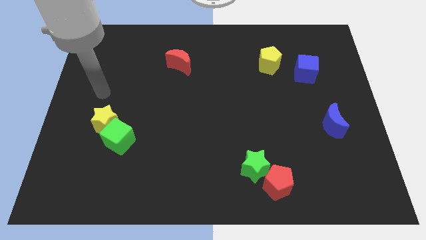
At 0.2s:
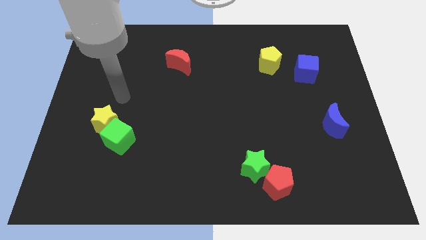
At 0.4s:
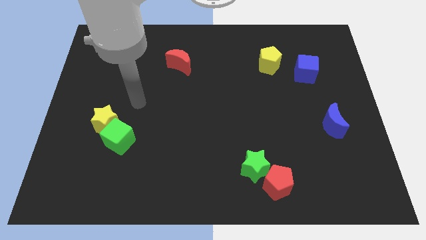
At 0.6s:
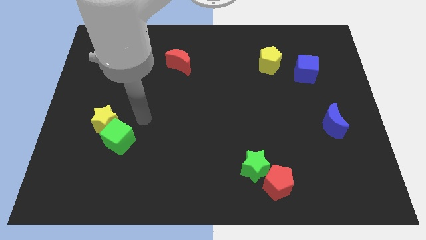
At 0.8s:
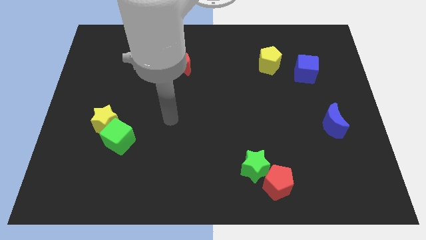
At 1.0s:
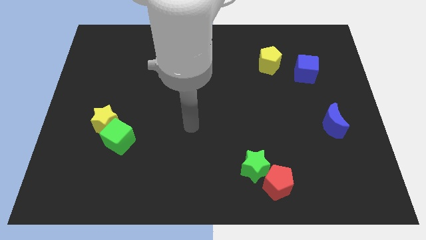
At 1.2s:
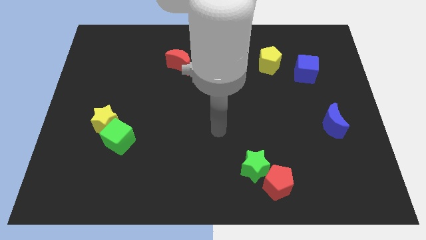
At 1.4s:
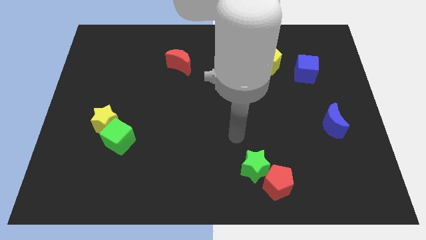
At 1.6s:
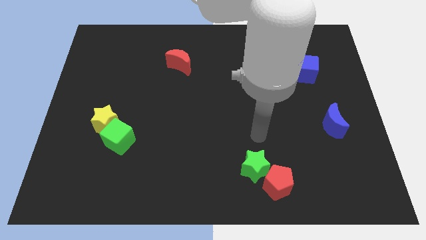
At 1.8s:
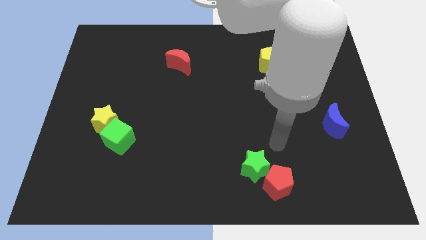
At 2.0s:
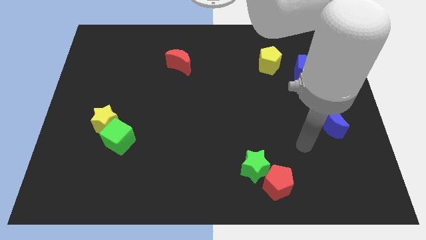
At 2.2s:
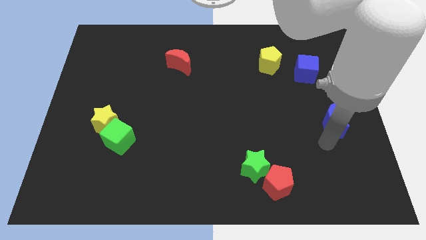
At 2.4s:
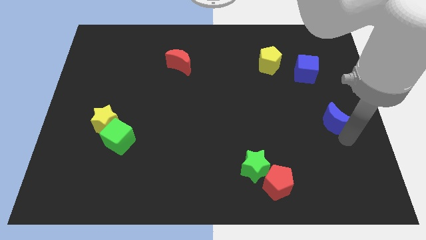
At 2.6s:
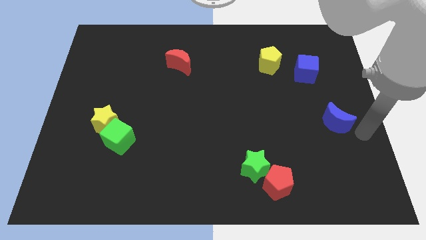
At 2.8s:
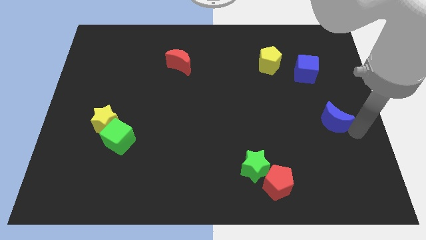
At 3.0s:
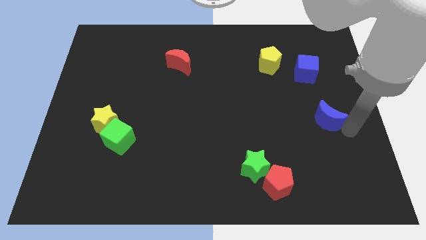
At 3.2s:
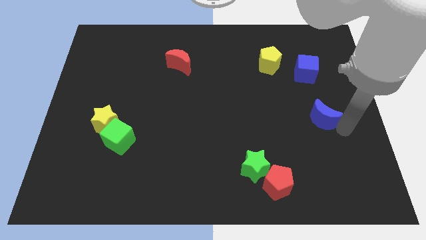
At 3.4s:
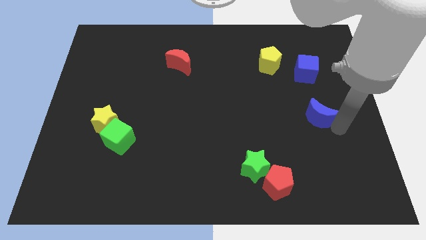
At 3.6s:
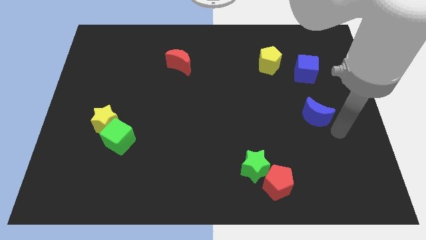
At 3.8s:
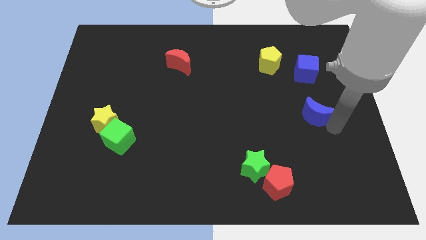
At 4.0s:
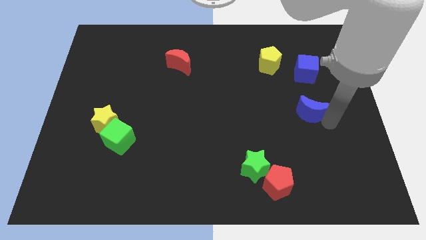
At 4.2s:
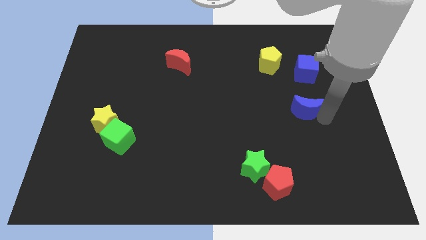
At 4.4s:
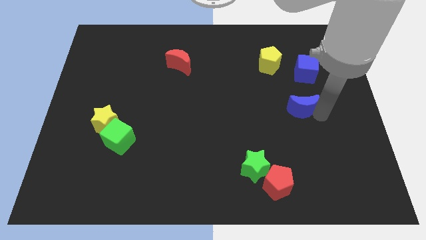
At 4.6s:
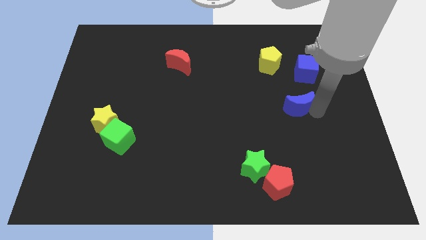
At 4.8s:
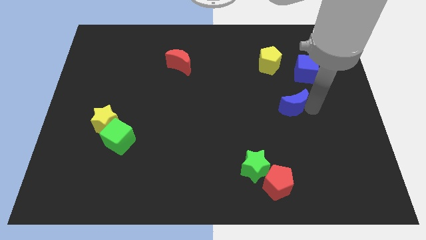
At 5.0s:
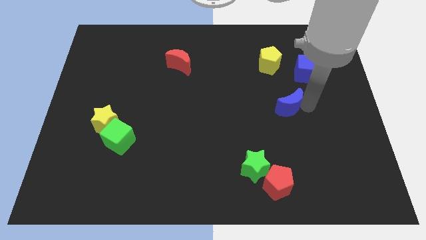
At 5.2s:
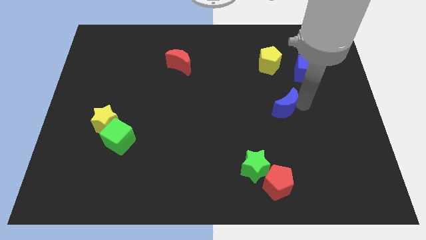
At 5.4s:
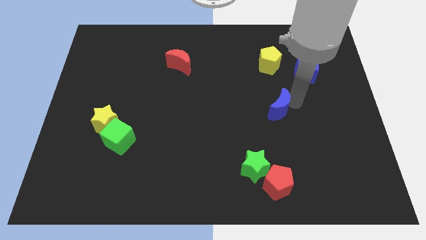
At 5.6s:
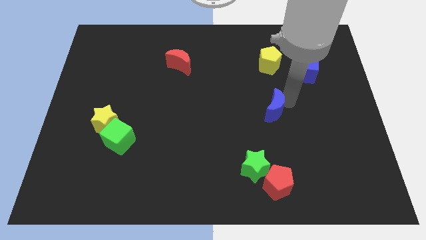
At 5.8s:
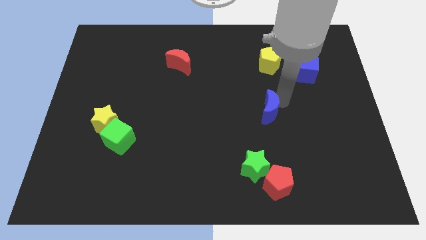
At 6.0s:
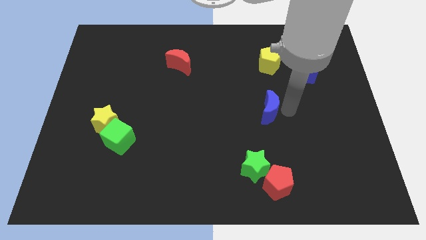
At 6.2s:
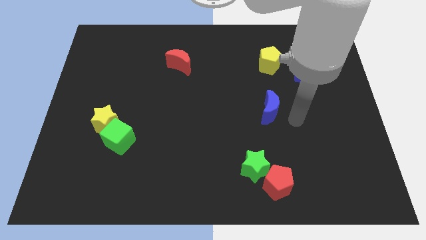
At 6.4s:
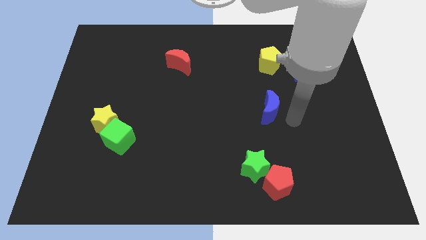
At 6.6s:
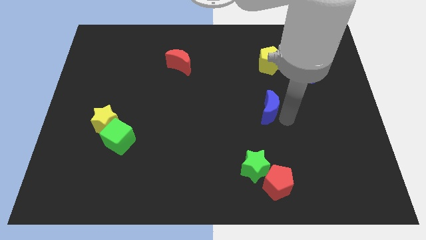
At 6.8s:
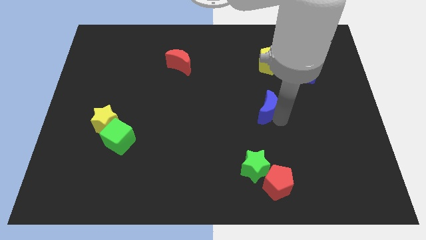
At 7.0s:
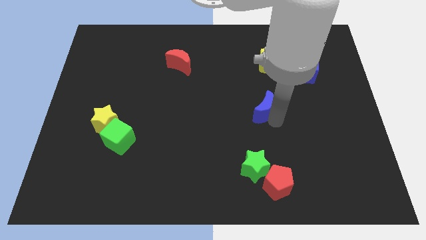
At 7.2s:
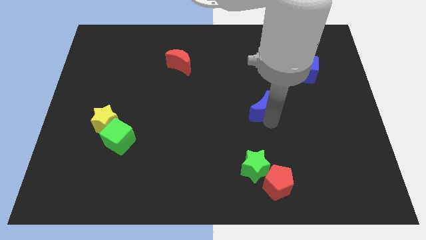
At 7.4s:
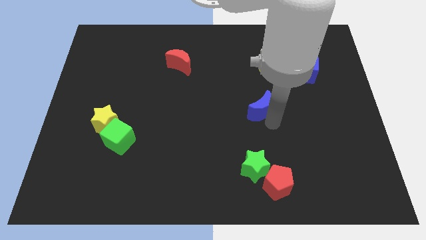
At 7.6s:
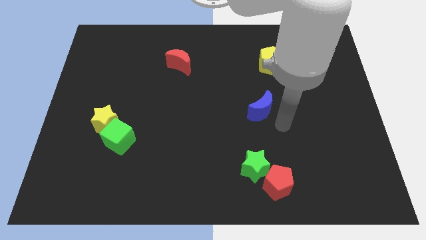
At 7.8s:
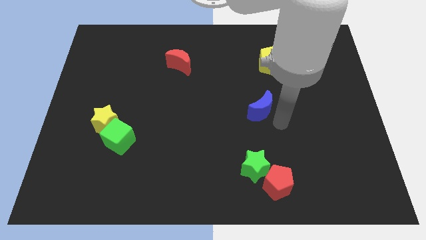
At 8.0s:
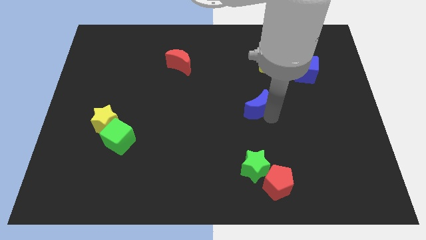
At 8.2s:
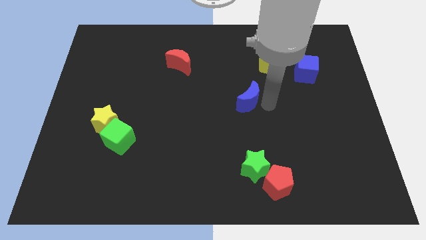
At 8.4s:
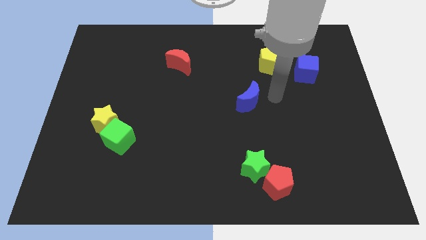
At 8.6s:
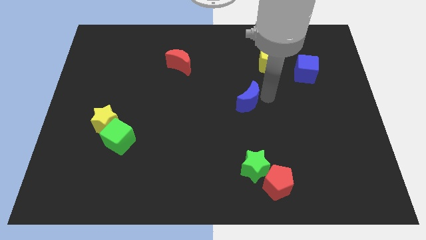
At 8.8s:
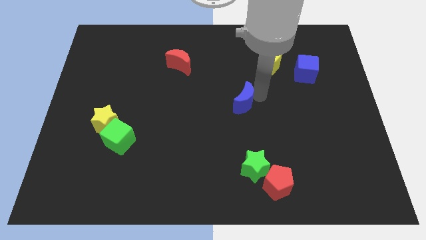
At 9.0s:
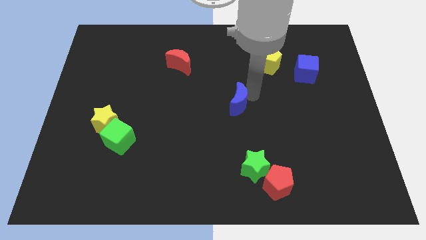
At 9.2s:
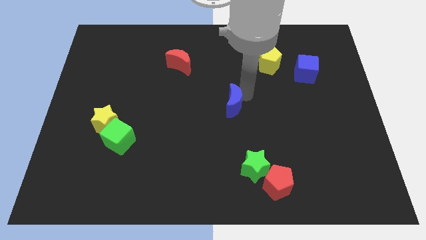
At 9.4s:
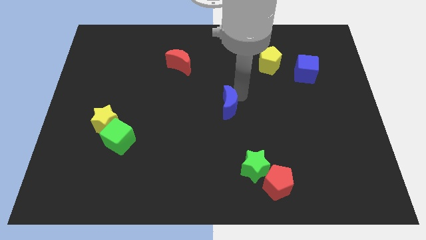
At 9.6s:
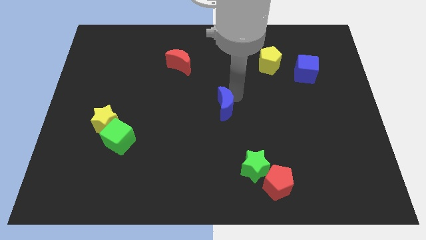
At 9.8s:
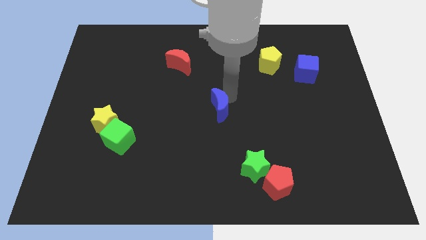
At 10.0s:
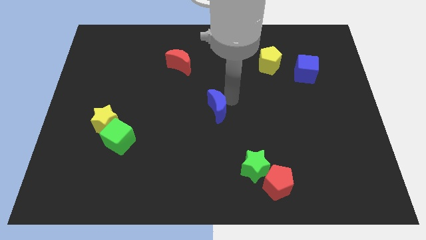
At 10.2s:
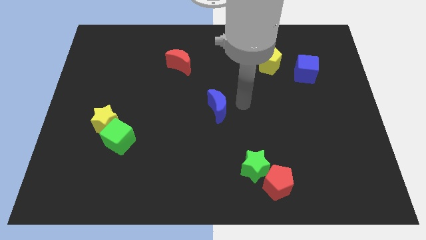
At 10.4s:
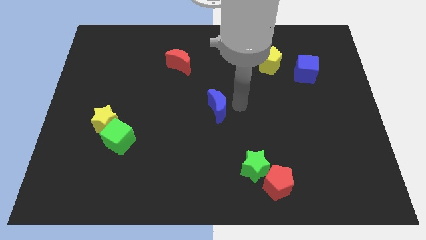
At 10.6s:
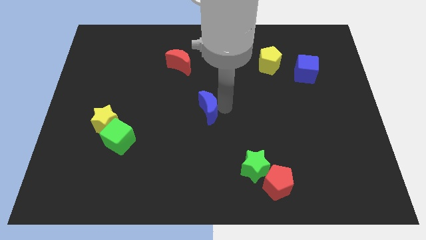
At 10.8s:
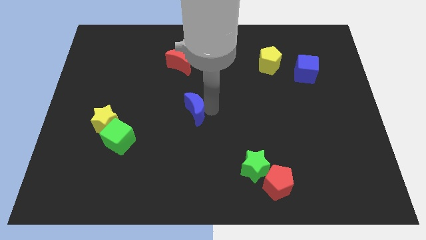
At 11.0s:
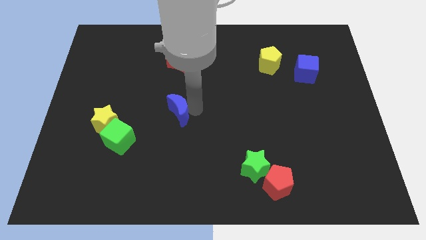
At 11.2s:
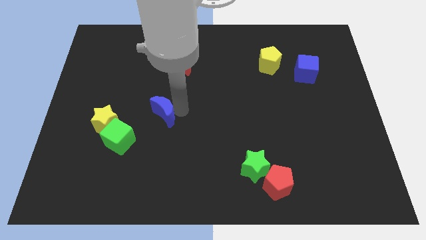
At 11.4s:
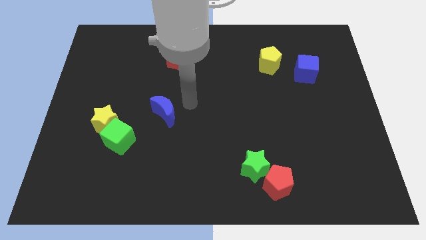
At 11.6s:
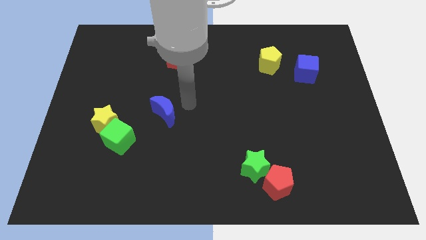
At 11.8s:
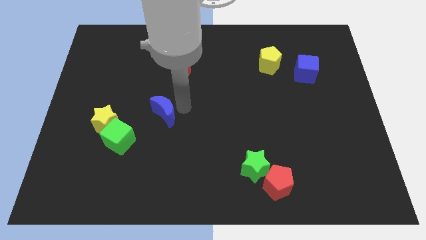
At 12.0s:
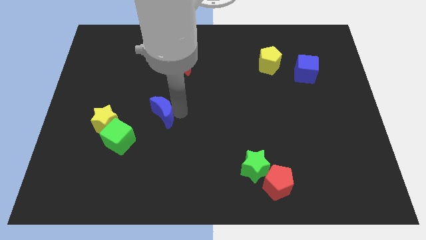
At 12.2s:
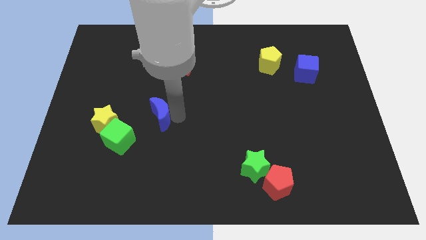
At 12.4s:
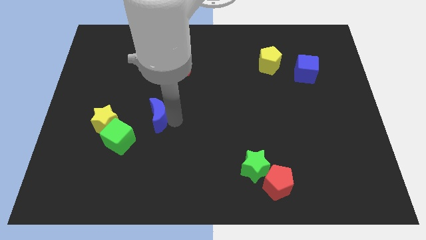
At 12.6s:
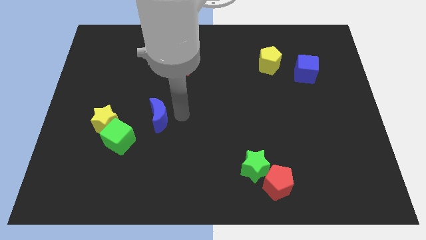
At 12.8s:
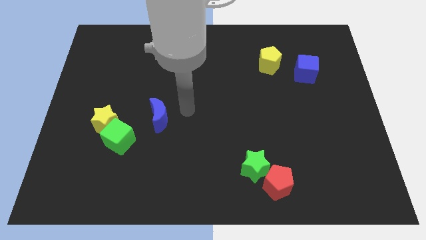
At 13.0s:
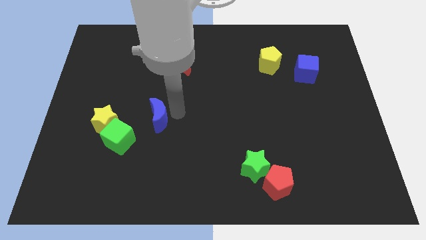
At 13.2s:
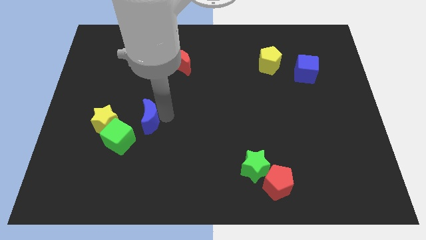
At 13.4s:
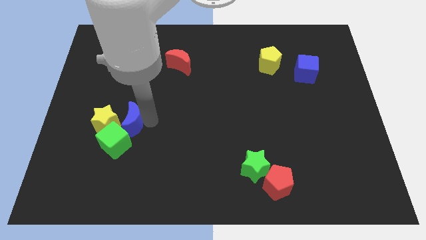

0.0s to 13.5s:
move the blue moon next to the yellow star
